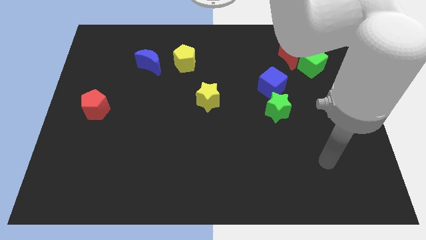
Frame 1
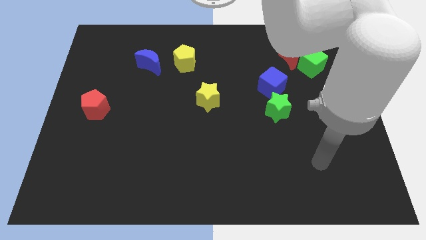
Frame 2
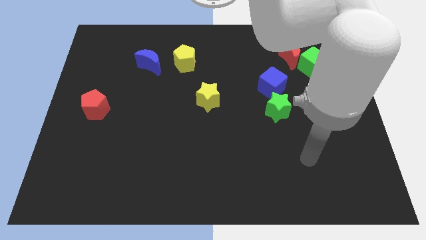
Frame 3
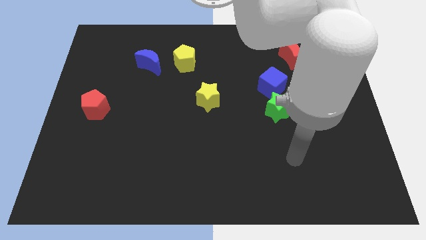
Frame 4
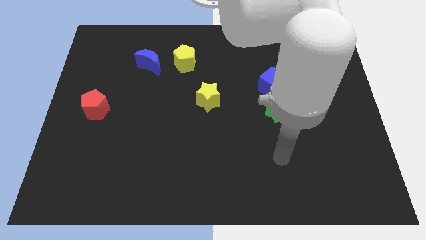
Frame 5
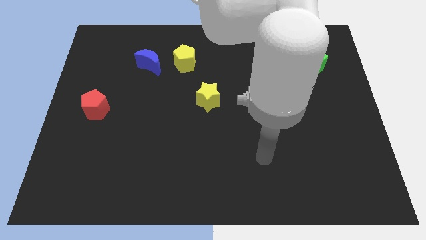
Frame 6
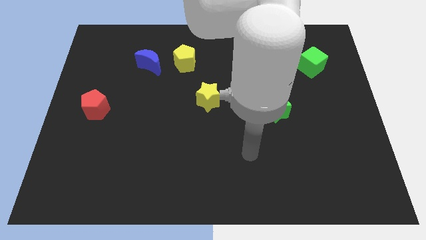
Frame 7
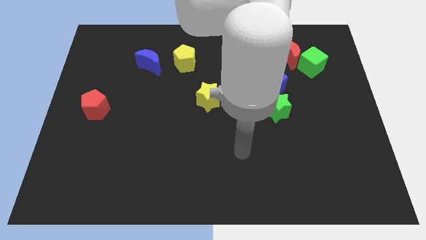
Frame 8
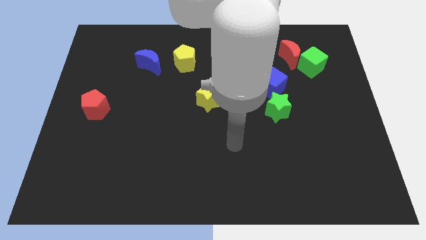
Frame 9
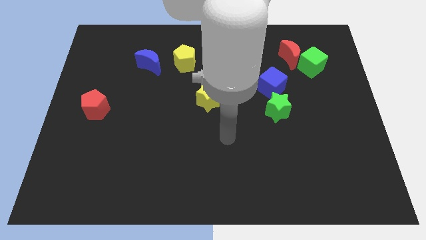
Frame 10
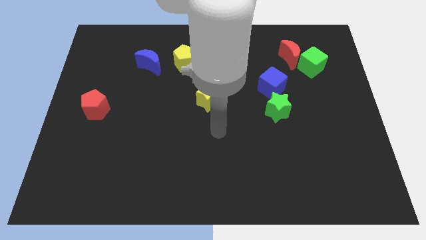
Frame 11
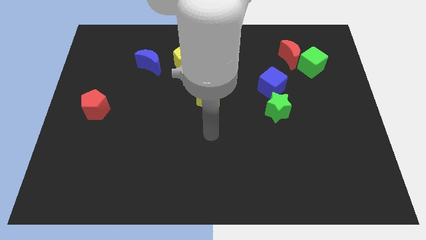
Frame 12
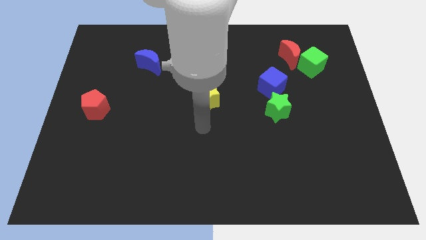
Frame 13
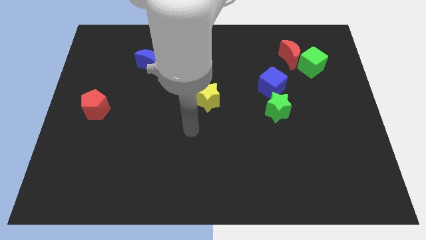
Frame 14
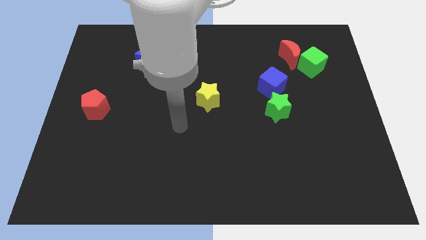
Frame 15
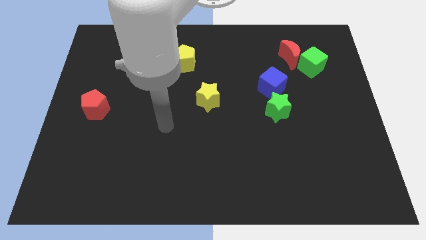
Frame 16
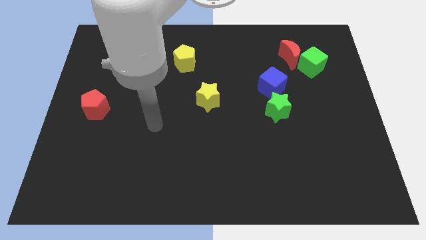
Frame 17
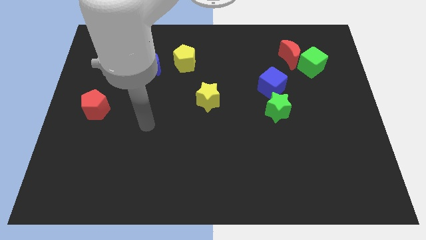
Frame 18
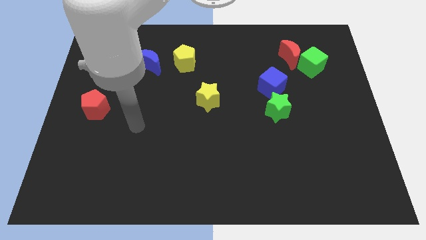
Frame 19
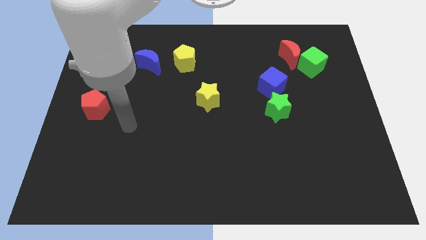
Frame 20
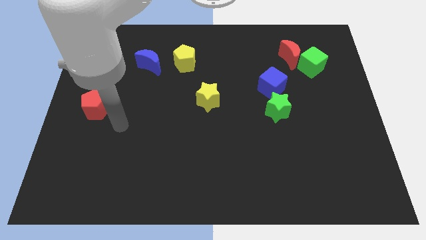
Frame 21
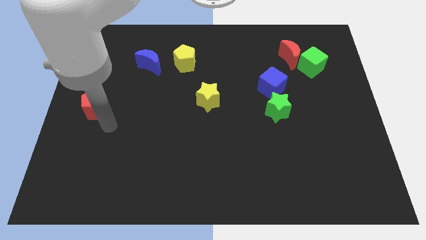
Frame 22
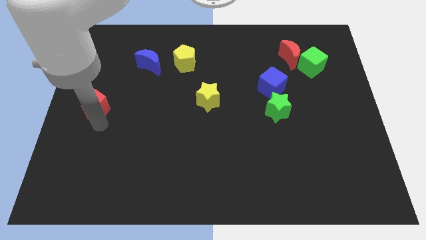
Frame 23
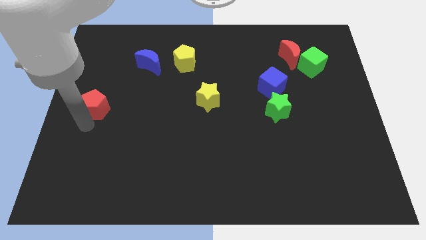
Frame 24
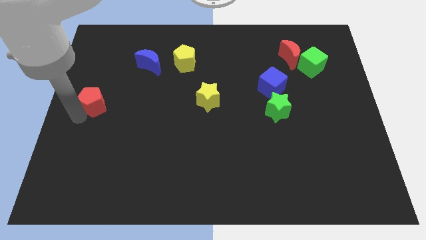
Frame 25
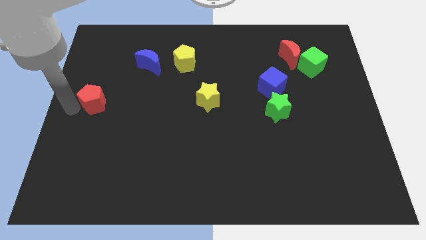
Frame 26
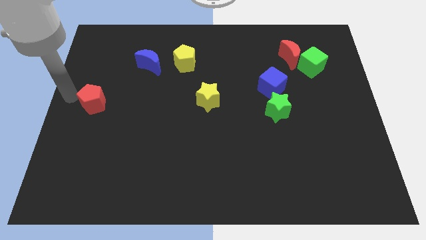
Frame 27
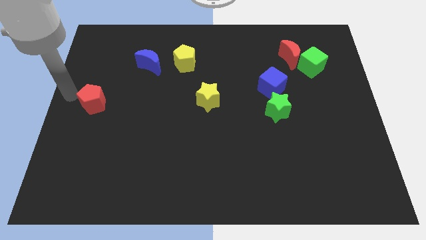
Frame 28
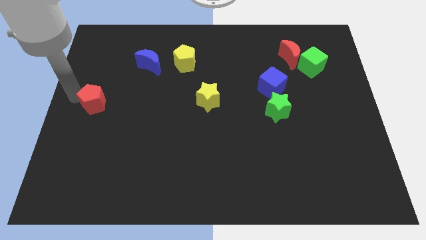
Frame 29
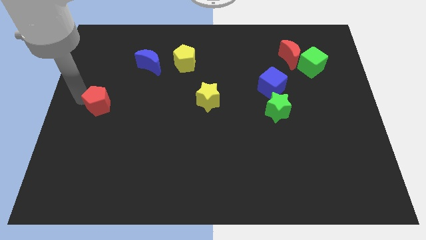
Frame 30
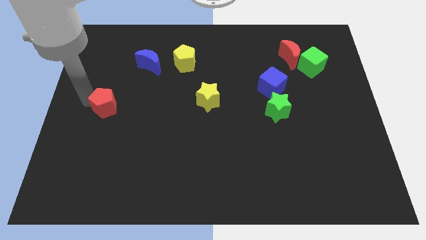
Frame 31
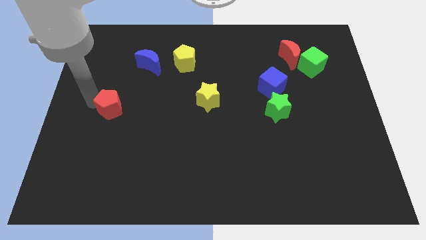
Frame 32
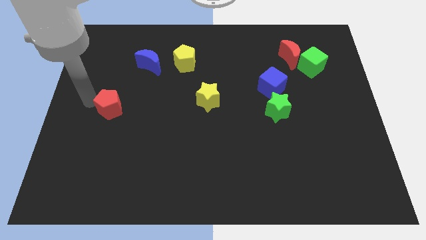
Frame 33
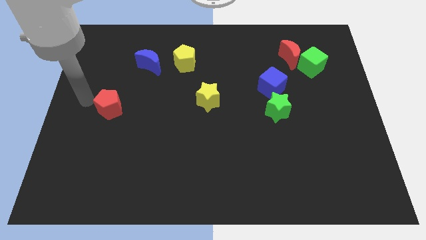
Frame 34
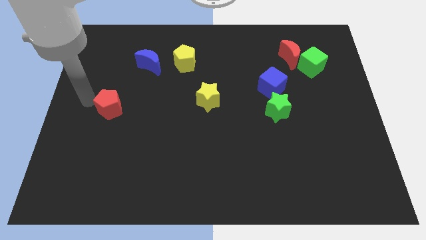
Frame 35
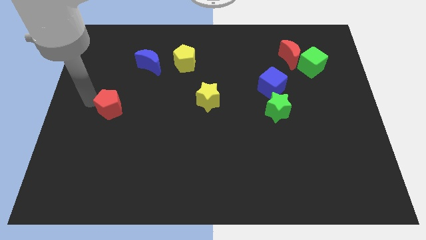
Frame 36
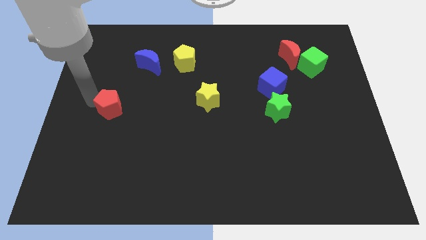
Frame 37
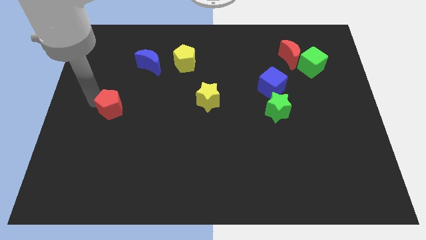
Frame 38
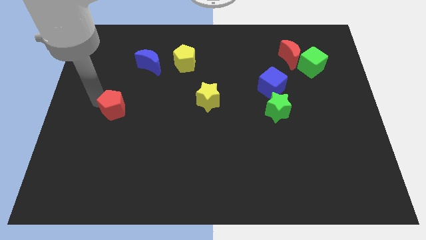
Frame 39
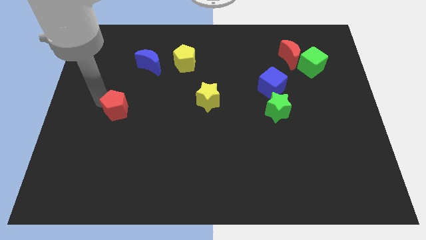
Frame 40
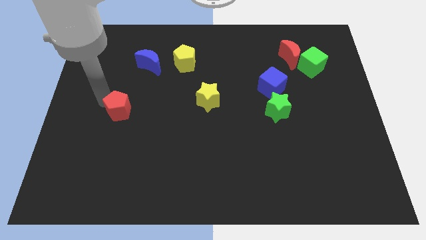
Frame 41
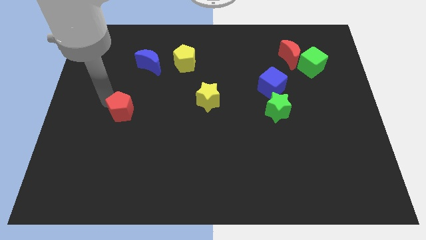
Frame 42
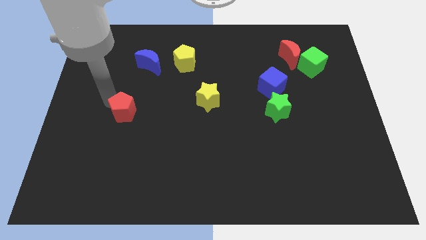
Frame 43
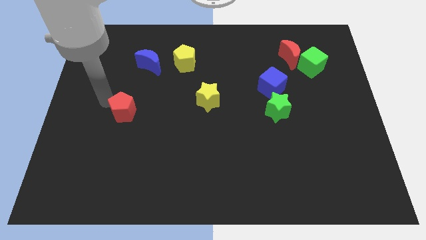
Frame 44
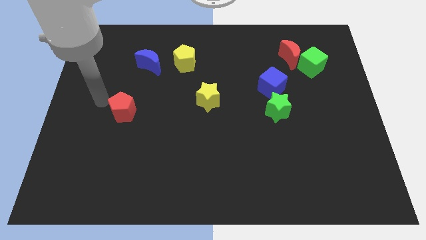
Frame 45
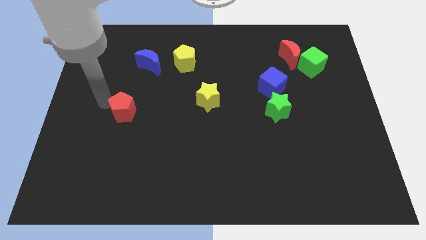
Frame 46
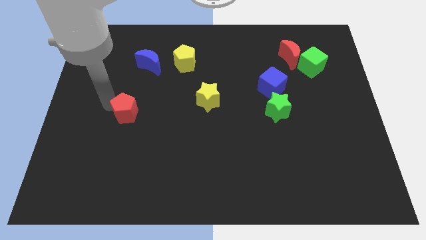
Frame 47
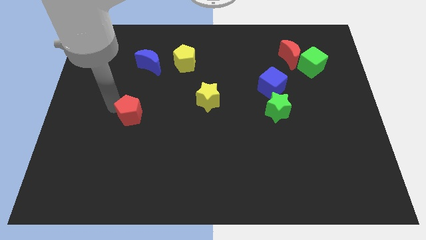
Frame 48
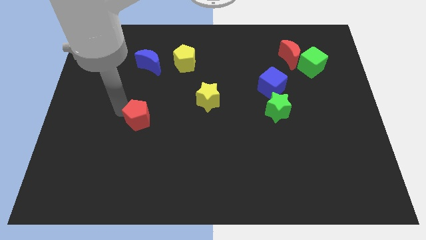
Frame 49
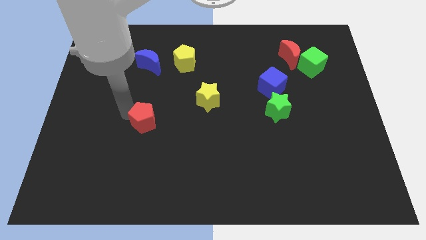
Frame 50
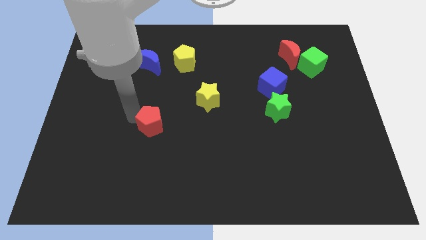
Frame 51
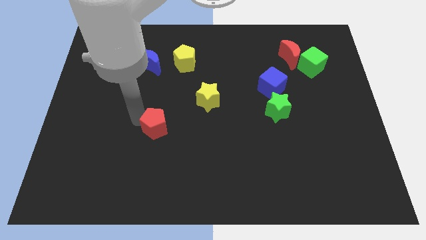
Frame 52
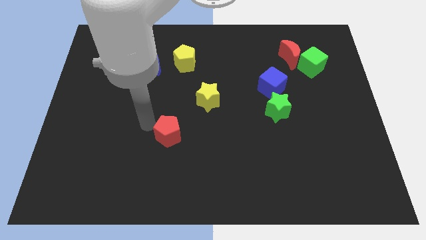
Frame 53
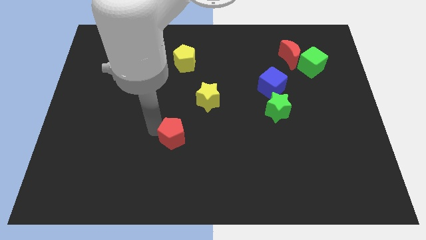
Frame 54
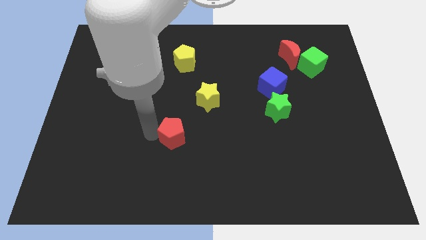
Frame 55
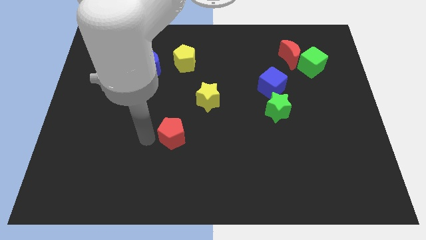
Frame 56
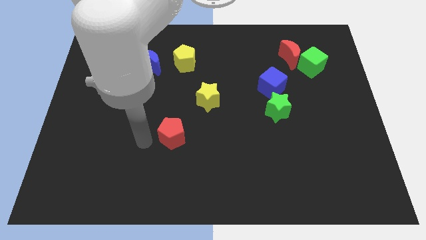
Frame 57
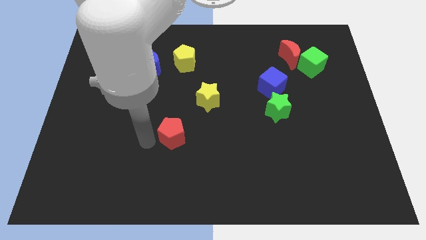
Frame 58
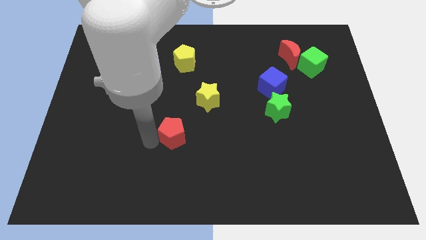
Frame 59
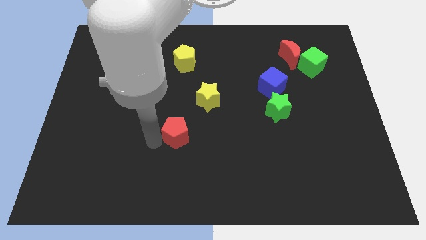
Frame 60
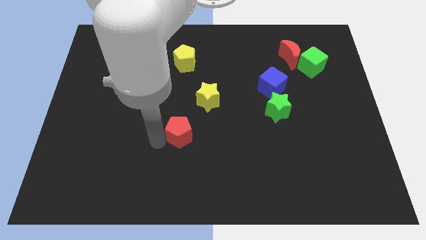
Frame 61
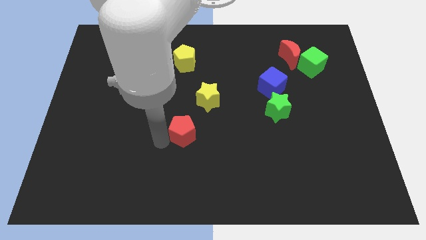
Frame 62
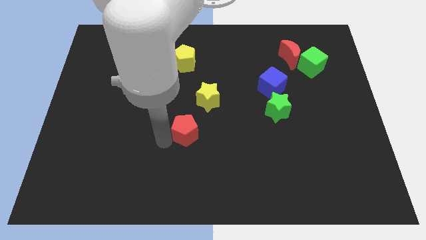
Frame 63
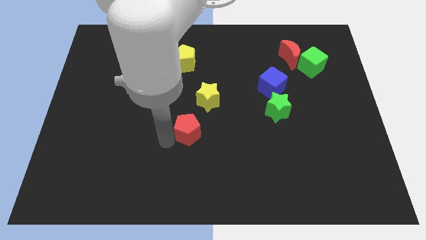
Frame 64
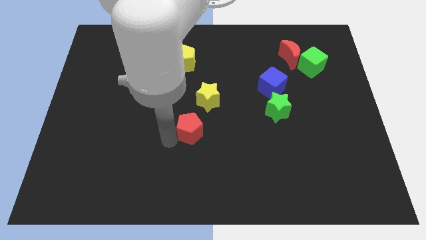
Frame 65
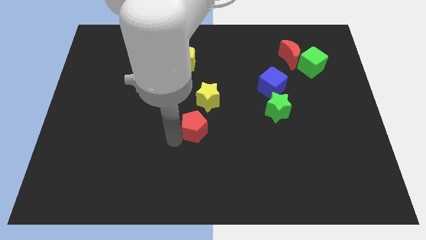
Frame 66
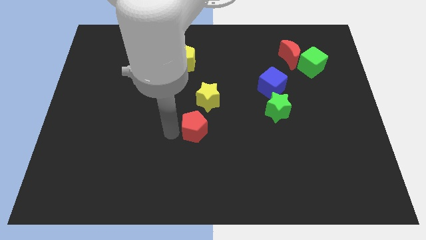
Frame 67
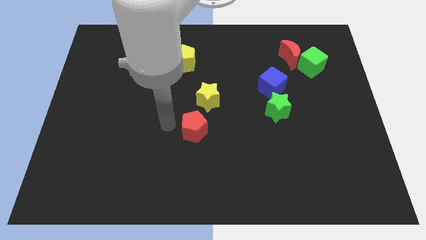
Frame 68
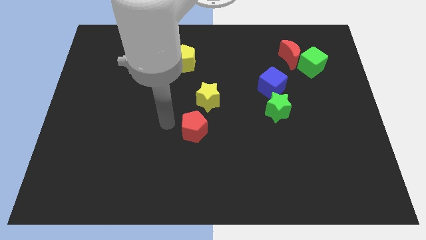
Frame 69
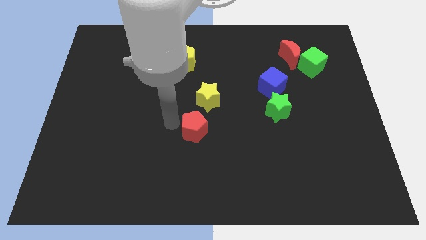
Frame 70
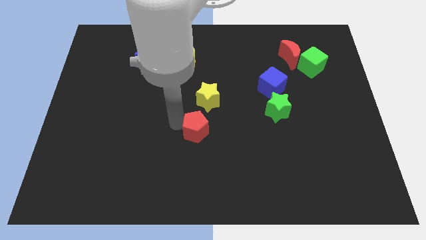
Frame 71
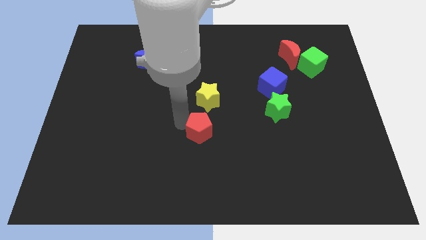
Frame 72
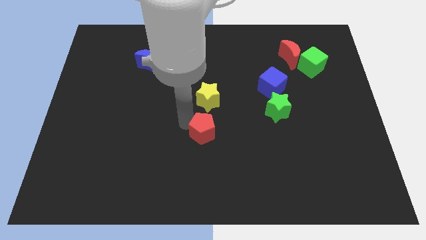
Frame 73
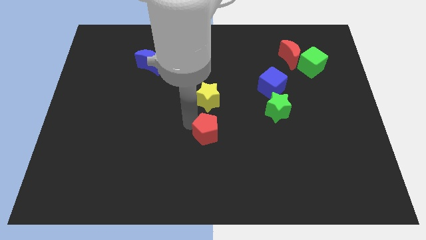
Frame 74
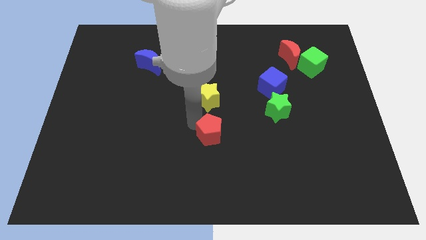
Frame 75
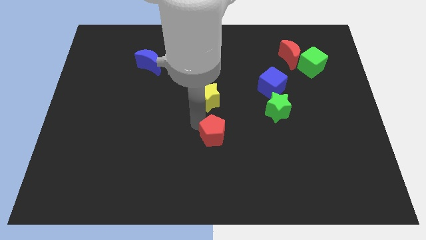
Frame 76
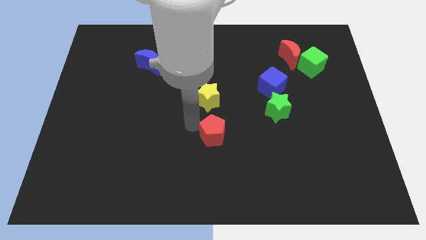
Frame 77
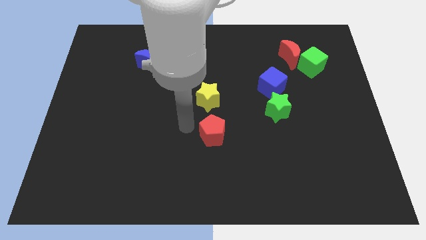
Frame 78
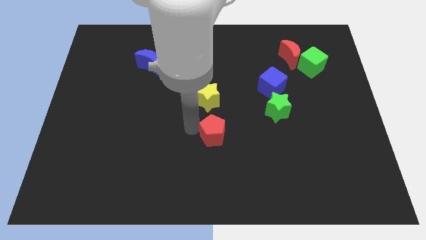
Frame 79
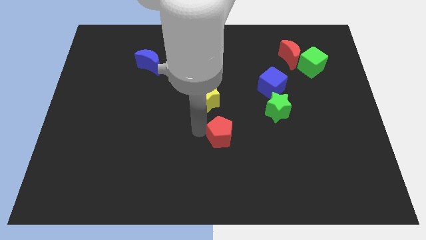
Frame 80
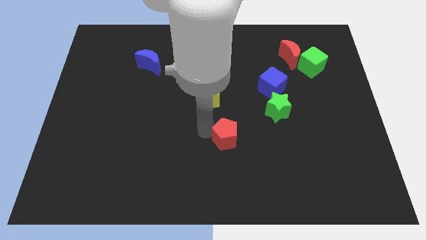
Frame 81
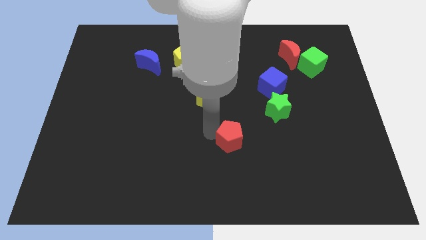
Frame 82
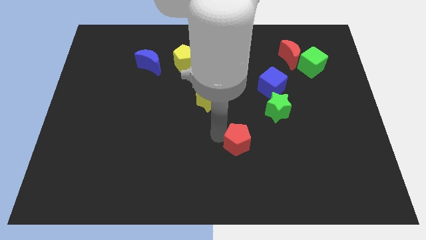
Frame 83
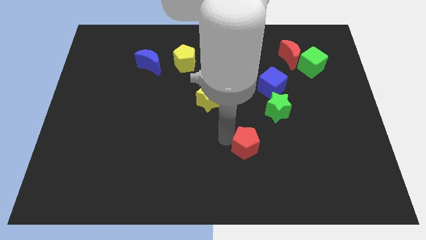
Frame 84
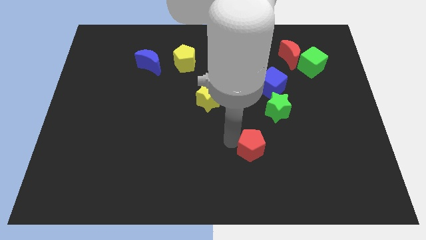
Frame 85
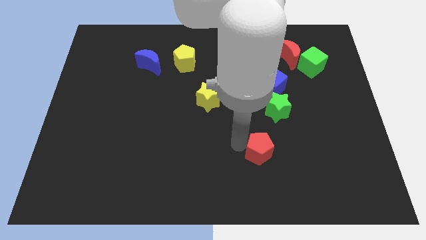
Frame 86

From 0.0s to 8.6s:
push the red pentagon to the bottom of the green star
